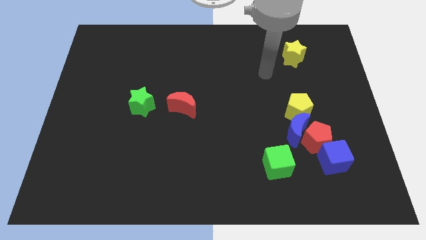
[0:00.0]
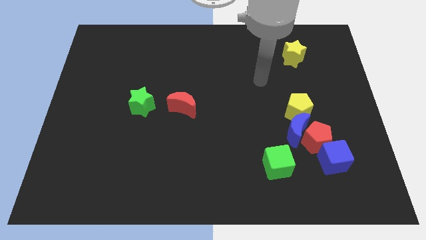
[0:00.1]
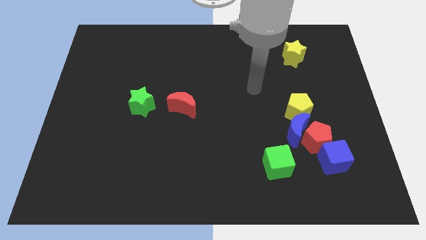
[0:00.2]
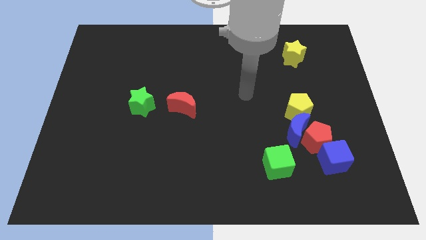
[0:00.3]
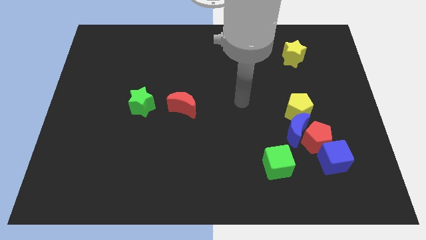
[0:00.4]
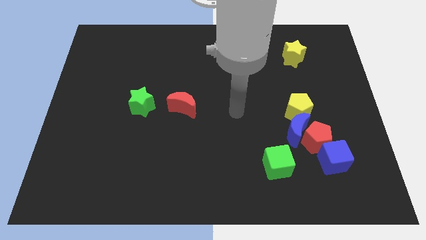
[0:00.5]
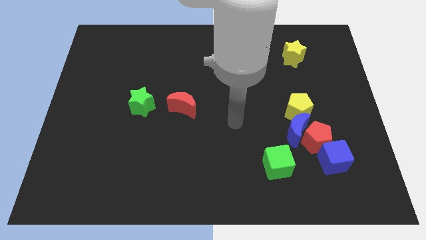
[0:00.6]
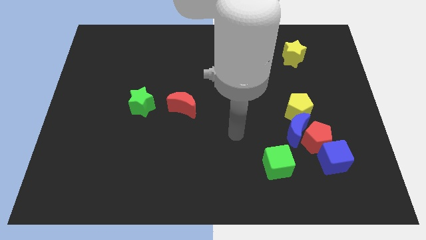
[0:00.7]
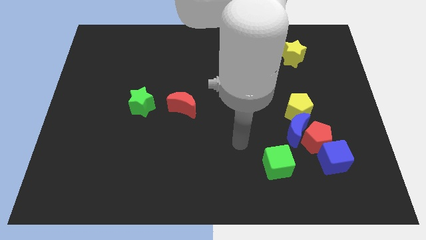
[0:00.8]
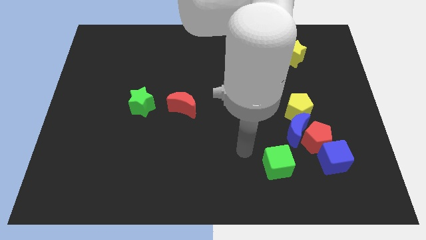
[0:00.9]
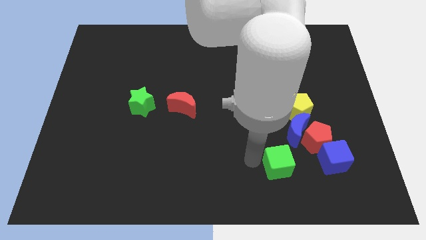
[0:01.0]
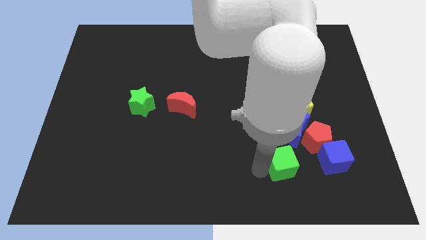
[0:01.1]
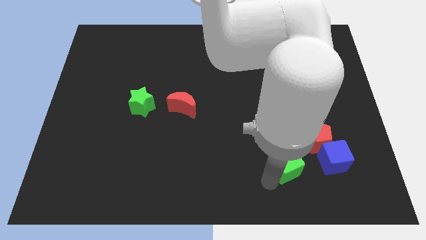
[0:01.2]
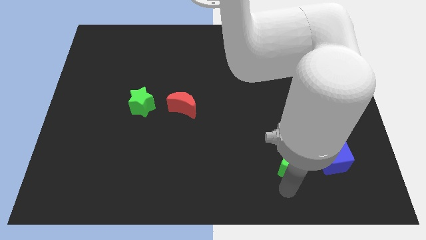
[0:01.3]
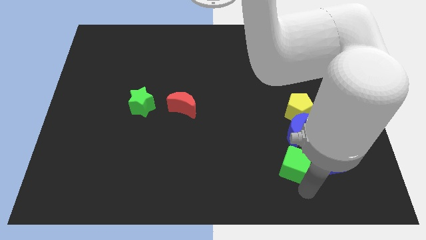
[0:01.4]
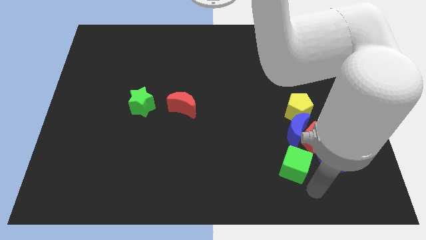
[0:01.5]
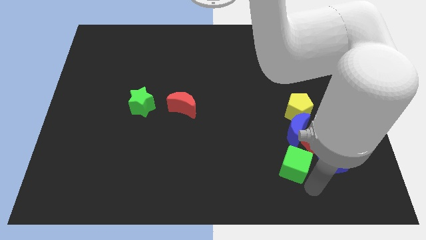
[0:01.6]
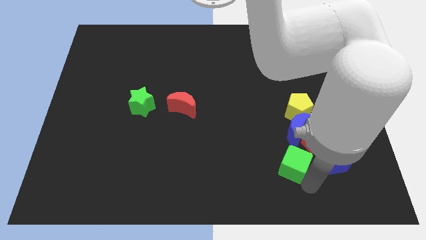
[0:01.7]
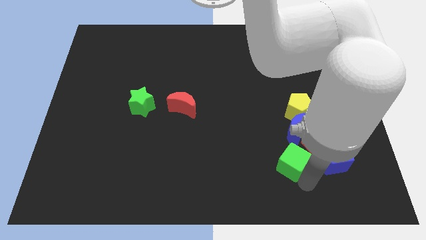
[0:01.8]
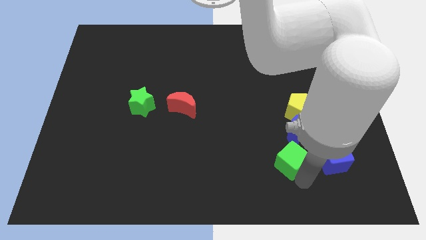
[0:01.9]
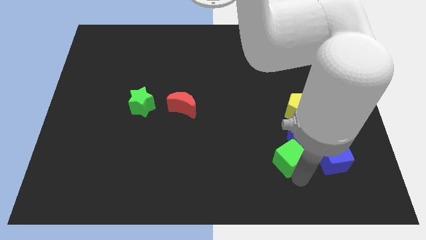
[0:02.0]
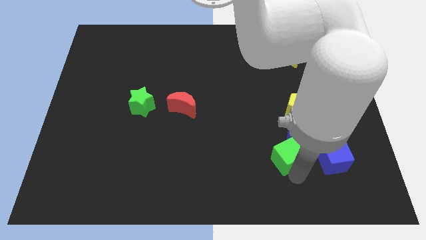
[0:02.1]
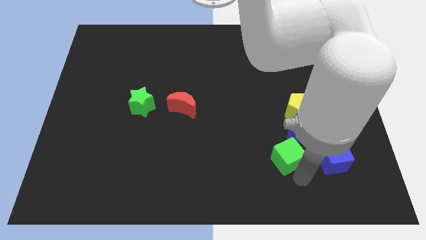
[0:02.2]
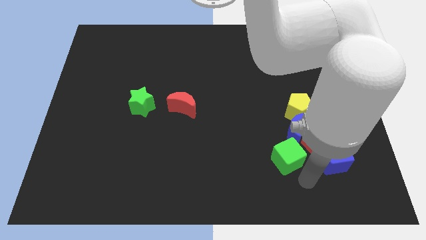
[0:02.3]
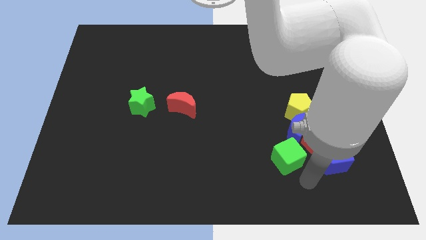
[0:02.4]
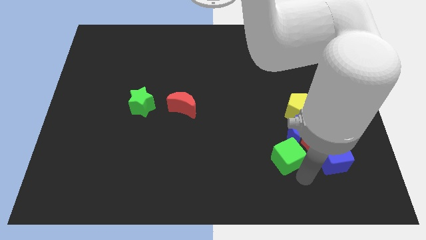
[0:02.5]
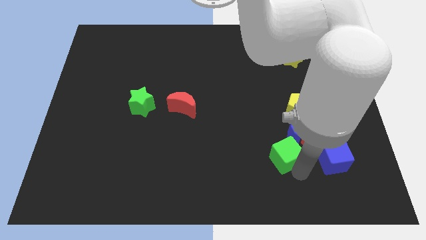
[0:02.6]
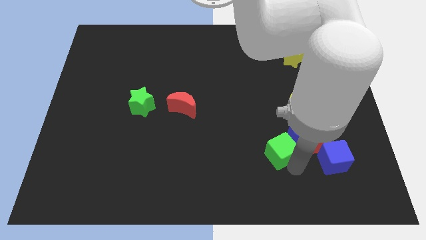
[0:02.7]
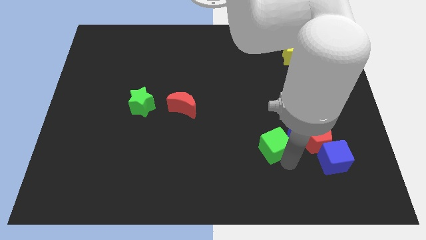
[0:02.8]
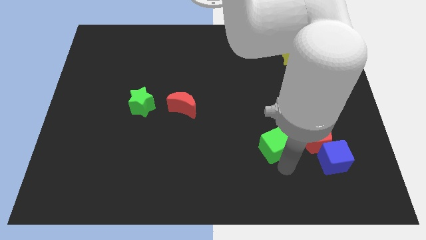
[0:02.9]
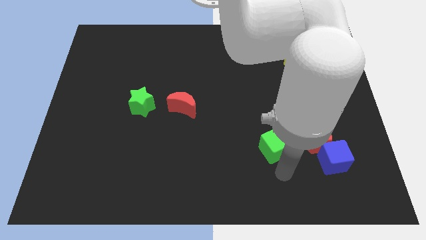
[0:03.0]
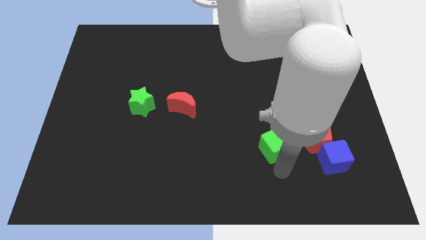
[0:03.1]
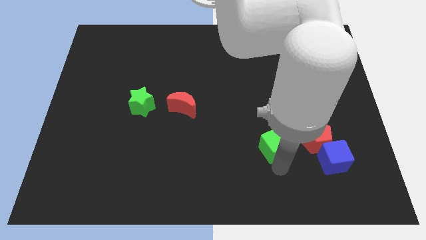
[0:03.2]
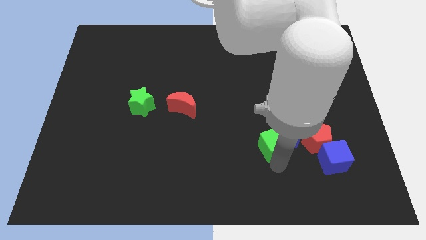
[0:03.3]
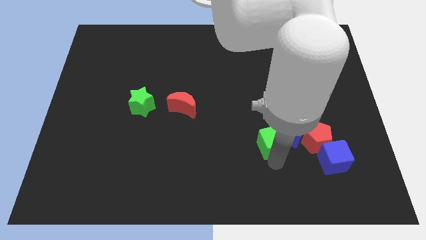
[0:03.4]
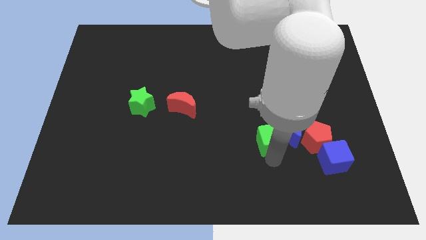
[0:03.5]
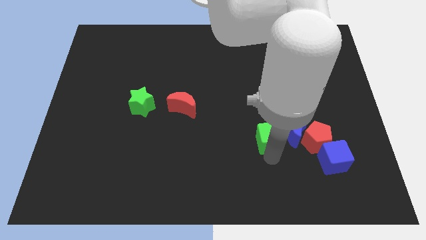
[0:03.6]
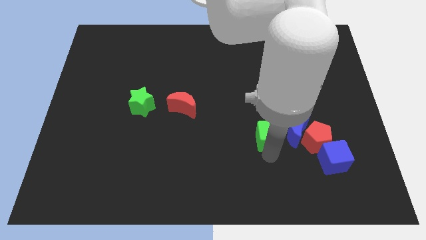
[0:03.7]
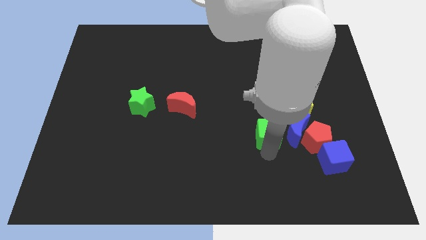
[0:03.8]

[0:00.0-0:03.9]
push the green cube a little bit upwards

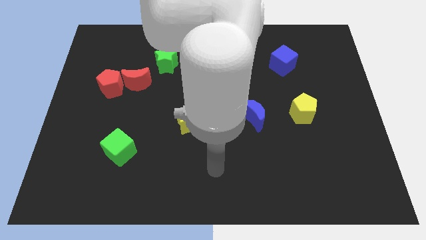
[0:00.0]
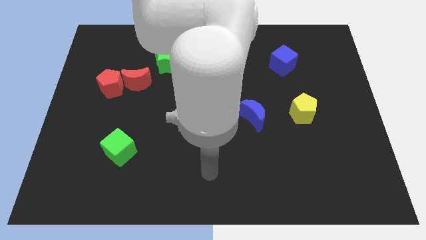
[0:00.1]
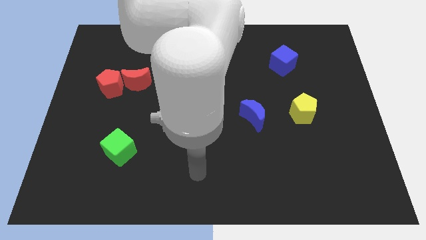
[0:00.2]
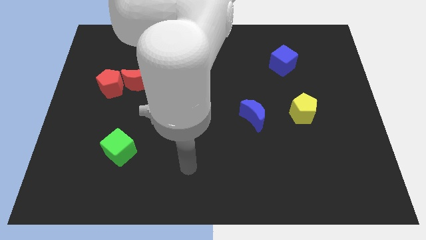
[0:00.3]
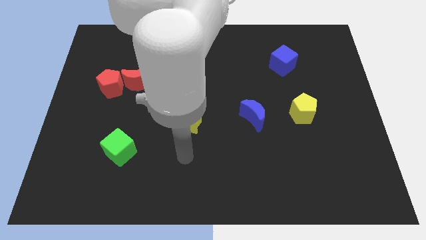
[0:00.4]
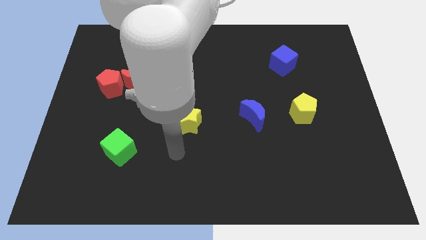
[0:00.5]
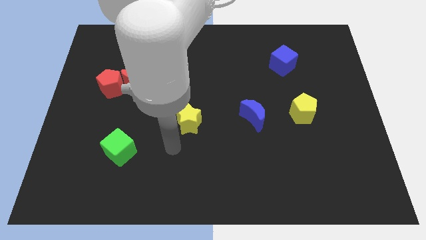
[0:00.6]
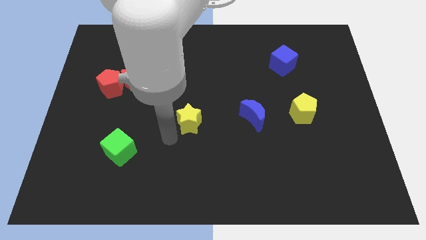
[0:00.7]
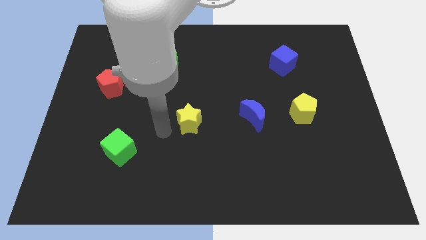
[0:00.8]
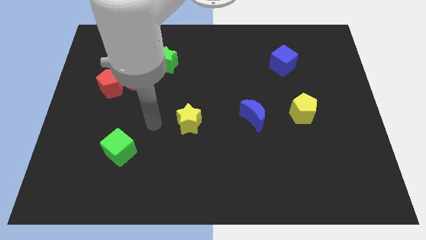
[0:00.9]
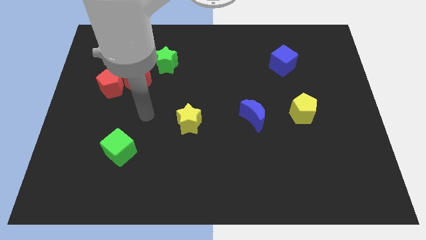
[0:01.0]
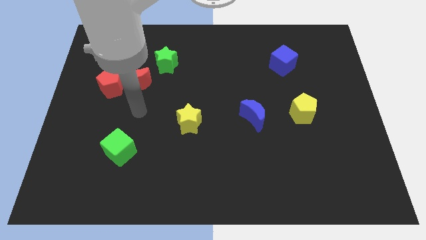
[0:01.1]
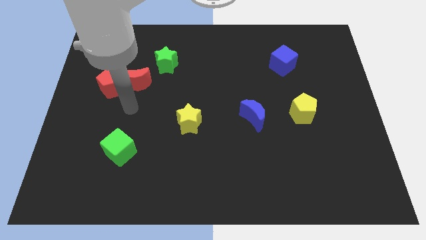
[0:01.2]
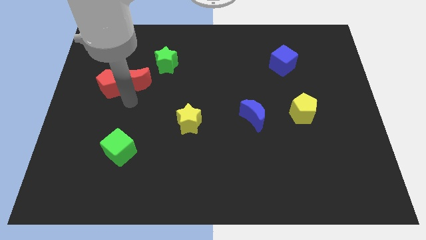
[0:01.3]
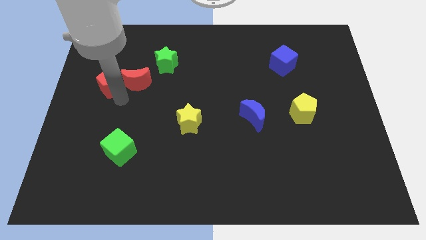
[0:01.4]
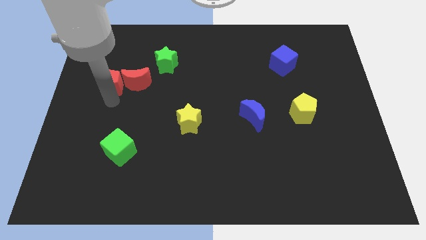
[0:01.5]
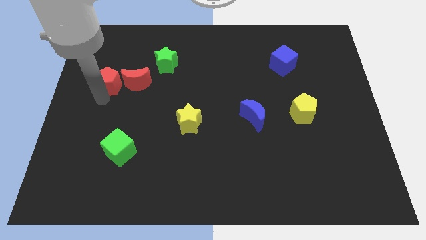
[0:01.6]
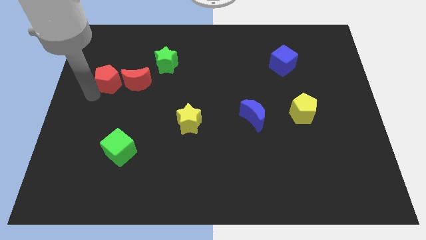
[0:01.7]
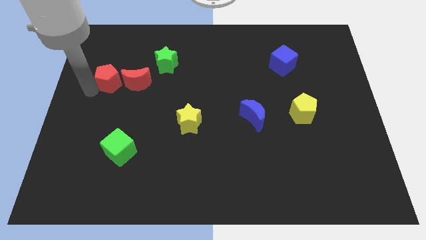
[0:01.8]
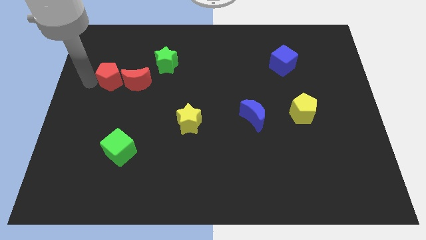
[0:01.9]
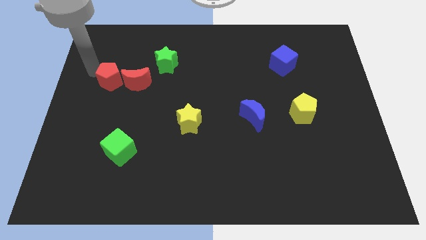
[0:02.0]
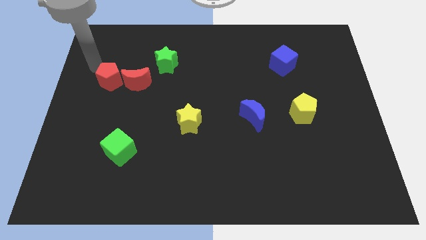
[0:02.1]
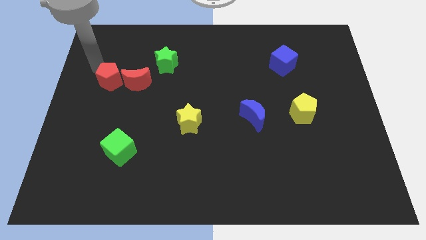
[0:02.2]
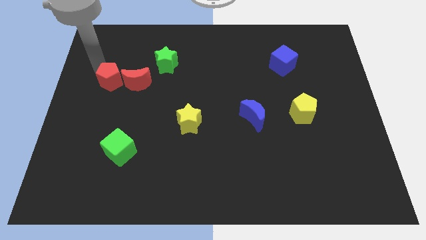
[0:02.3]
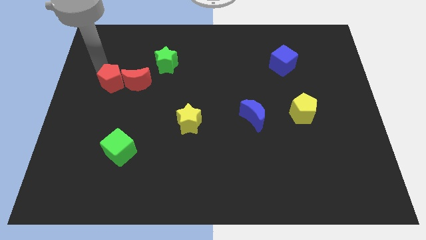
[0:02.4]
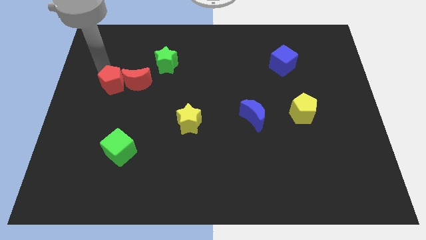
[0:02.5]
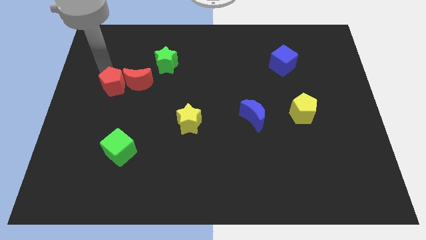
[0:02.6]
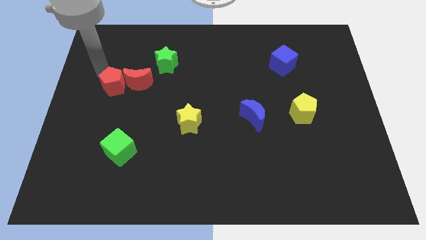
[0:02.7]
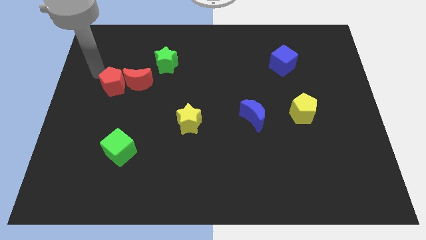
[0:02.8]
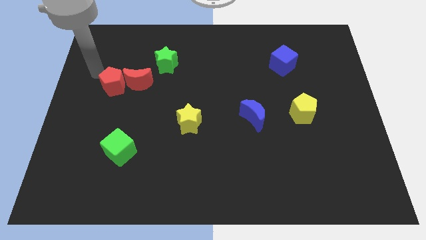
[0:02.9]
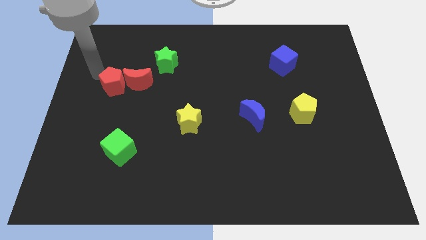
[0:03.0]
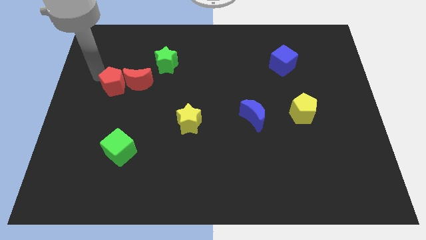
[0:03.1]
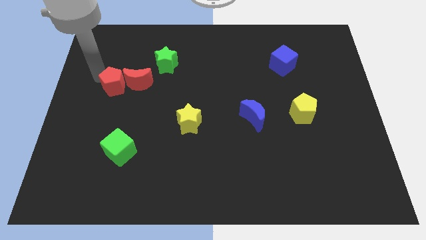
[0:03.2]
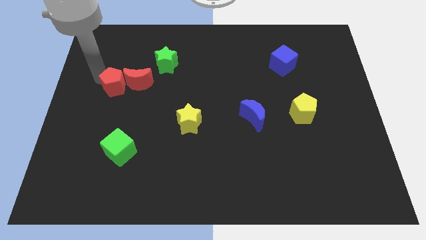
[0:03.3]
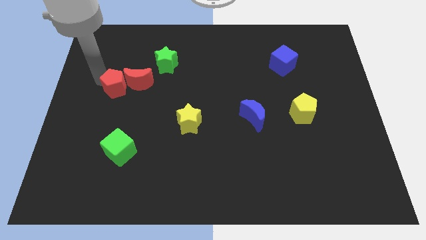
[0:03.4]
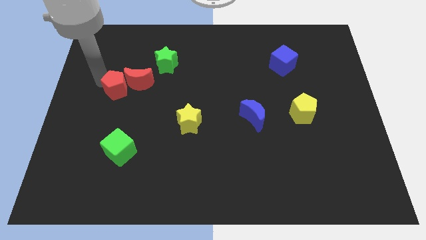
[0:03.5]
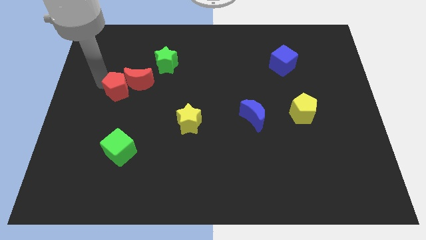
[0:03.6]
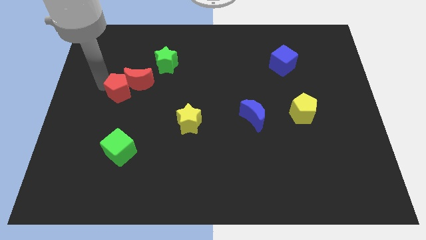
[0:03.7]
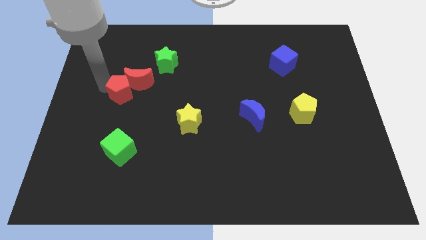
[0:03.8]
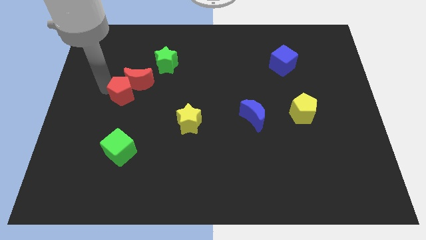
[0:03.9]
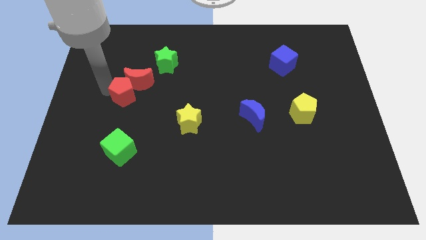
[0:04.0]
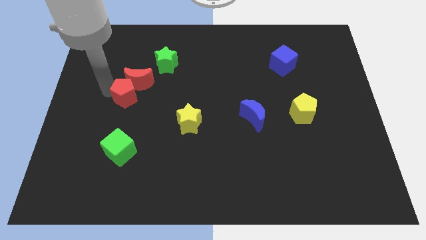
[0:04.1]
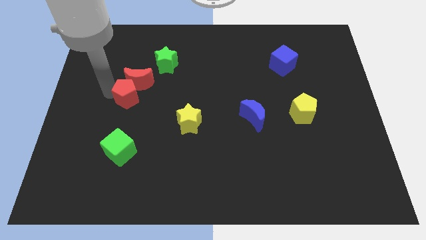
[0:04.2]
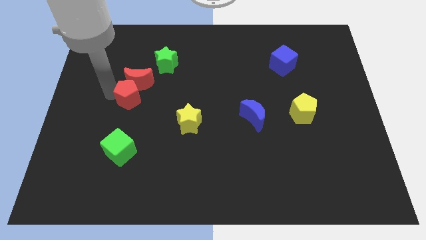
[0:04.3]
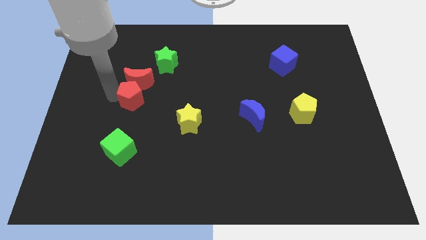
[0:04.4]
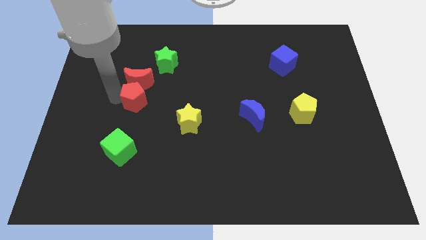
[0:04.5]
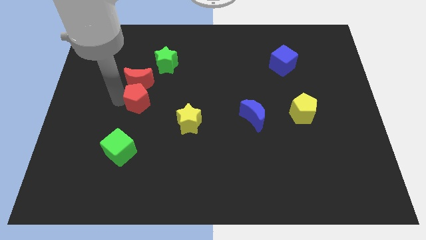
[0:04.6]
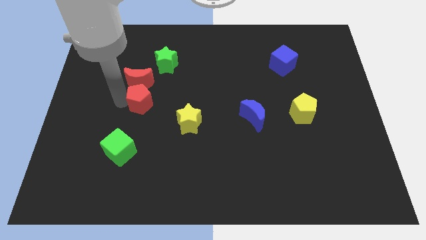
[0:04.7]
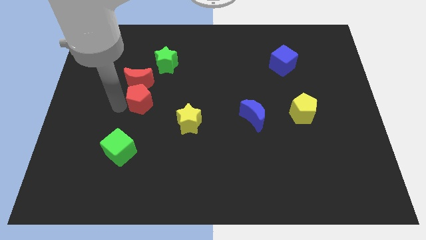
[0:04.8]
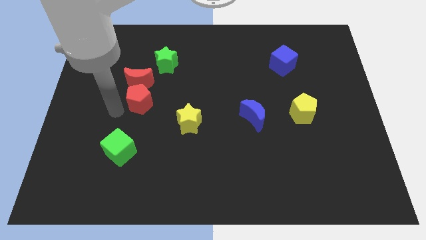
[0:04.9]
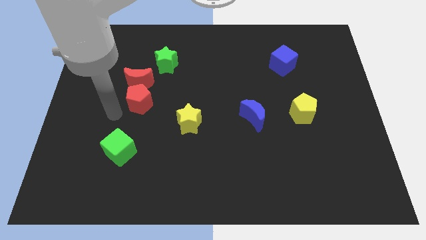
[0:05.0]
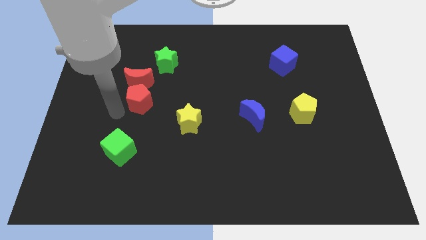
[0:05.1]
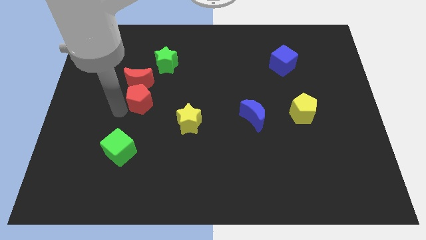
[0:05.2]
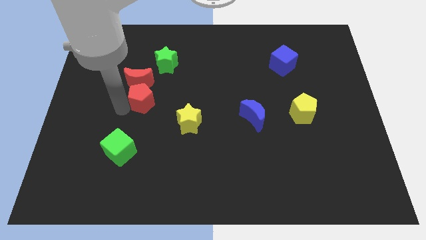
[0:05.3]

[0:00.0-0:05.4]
move the red pentagon a bit right
